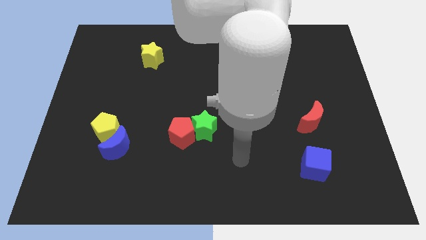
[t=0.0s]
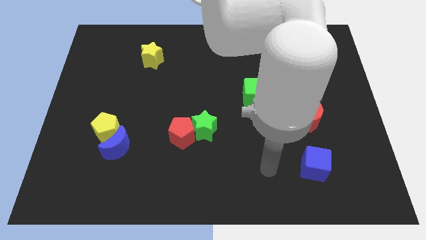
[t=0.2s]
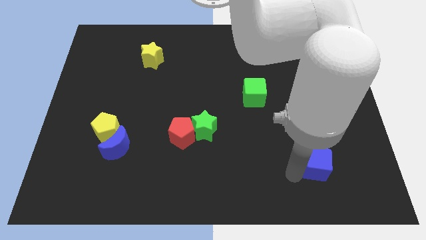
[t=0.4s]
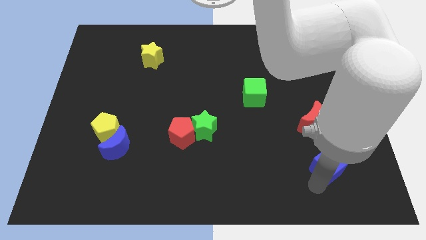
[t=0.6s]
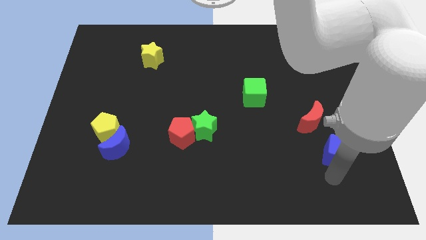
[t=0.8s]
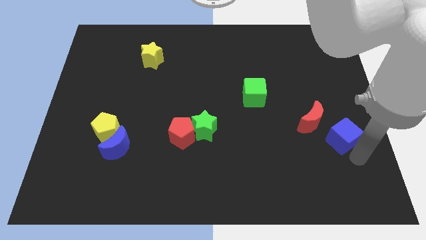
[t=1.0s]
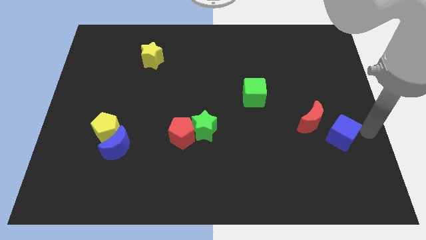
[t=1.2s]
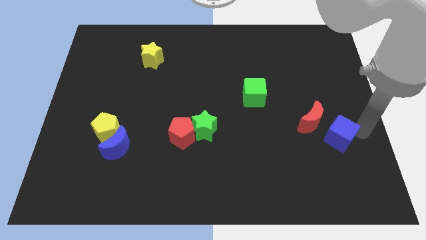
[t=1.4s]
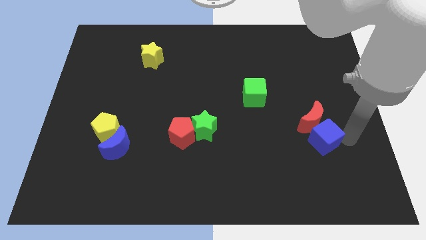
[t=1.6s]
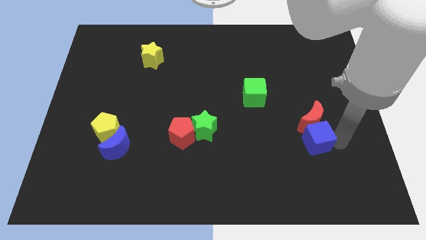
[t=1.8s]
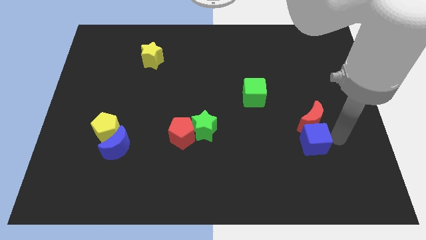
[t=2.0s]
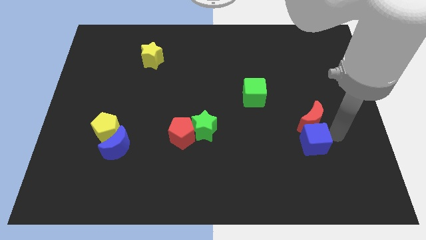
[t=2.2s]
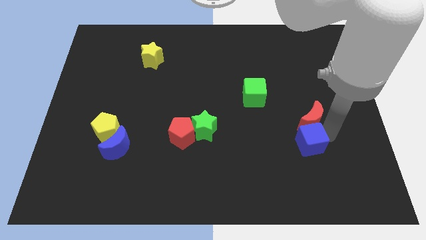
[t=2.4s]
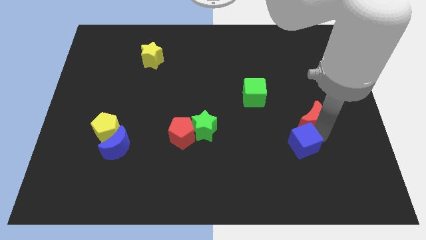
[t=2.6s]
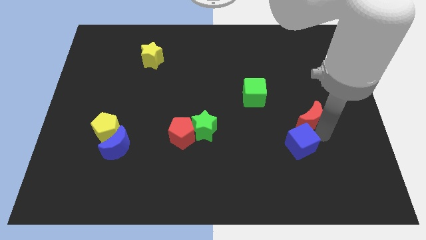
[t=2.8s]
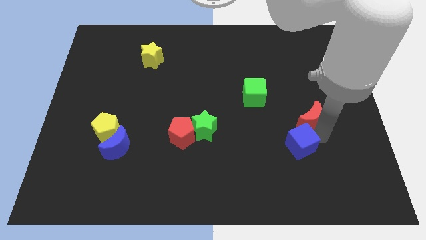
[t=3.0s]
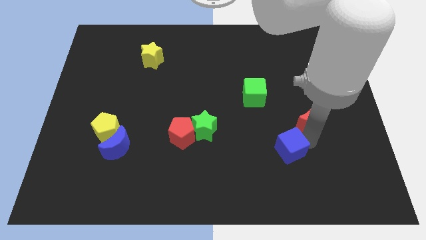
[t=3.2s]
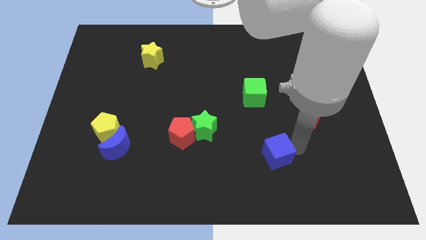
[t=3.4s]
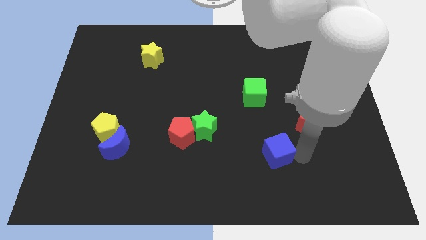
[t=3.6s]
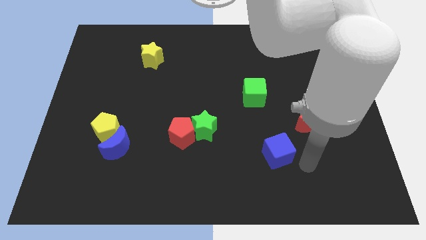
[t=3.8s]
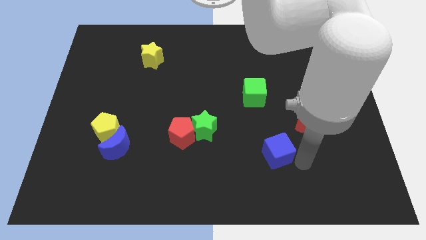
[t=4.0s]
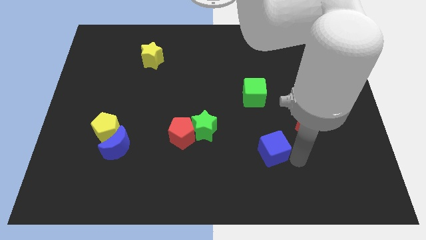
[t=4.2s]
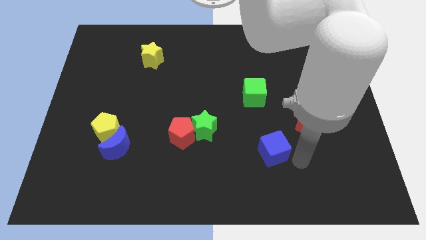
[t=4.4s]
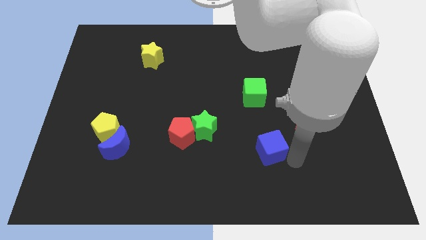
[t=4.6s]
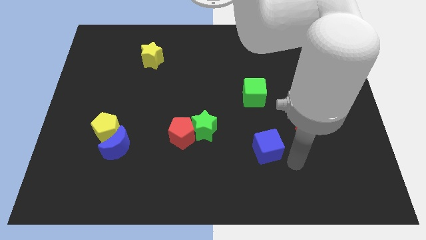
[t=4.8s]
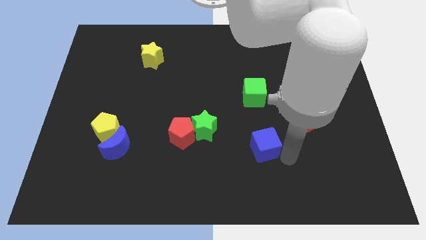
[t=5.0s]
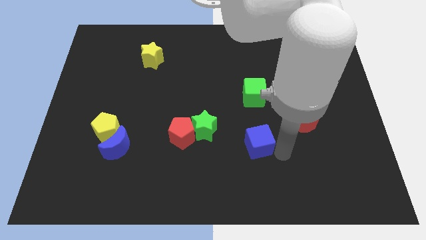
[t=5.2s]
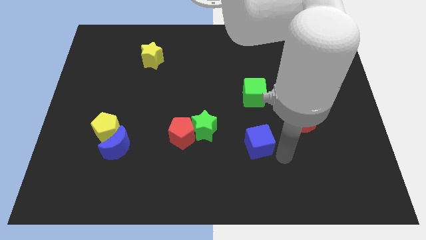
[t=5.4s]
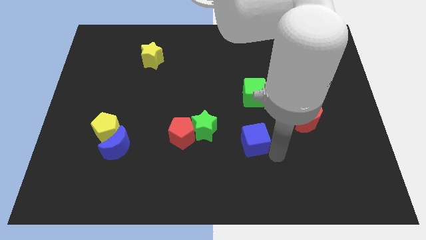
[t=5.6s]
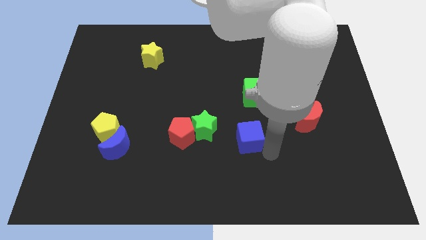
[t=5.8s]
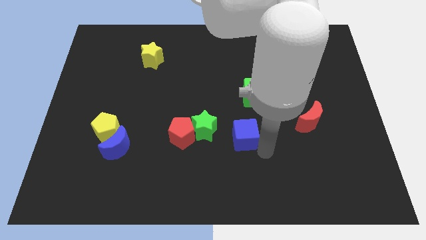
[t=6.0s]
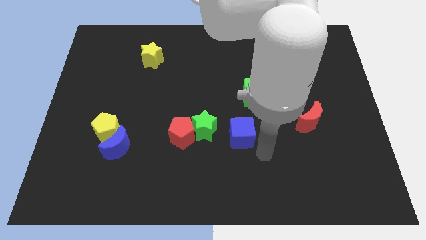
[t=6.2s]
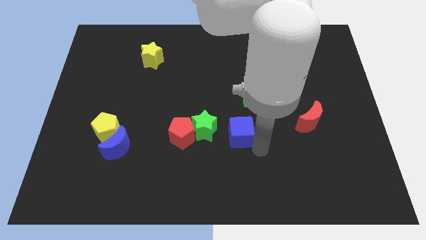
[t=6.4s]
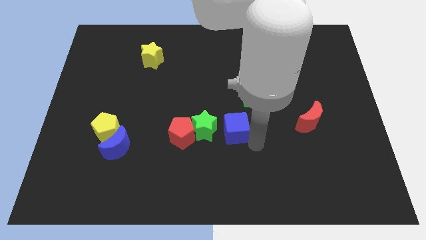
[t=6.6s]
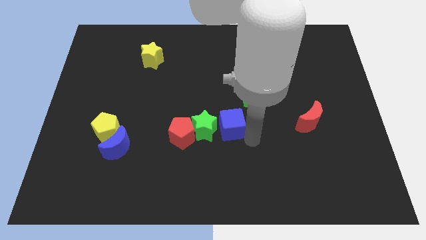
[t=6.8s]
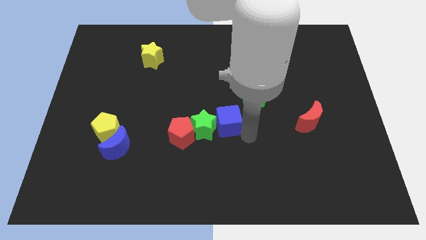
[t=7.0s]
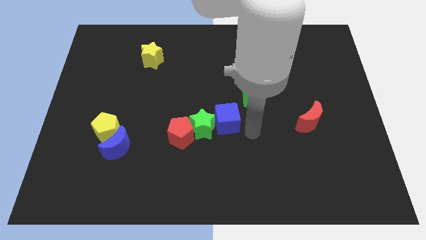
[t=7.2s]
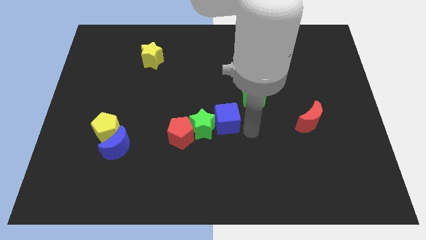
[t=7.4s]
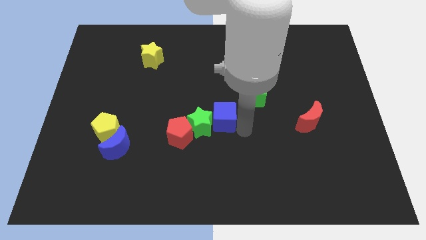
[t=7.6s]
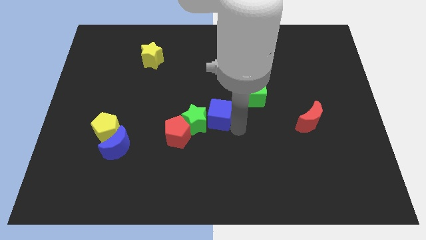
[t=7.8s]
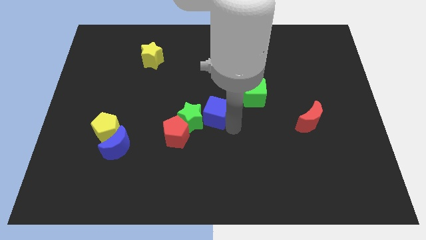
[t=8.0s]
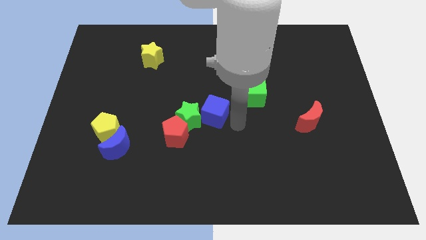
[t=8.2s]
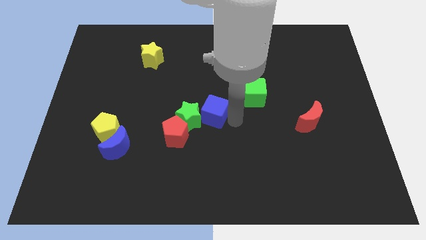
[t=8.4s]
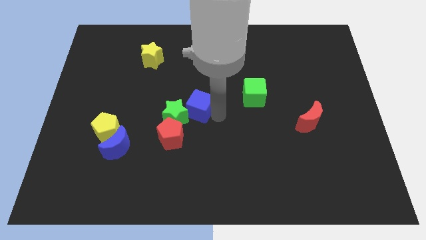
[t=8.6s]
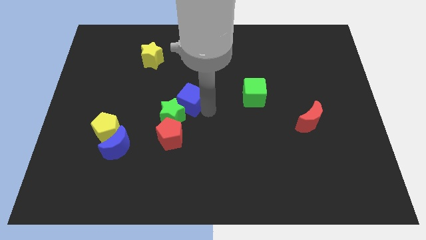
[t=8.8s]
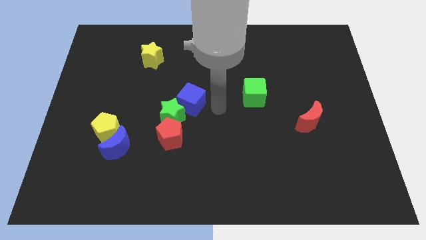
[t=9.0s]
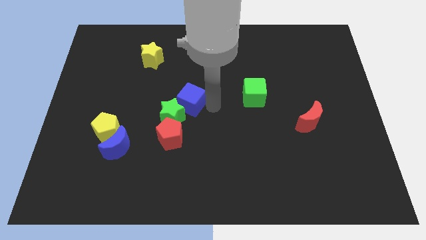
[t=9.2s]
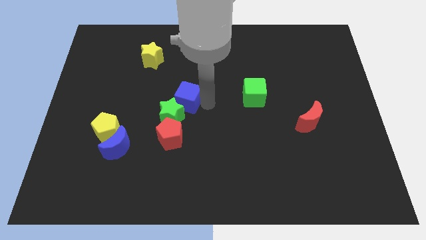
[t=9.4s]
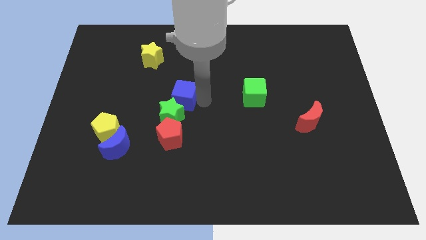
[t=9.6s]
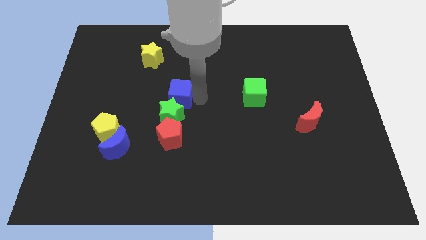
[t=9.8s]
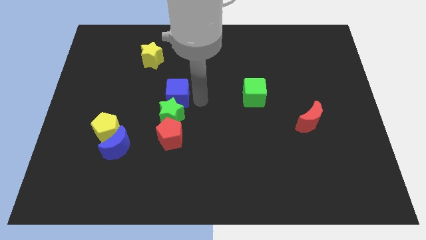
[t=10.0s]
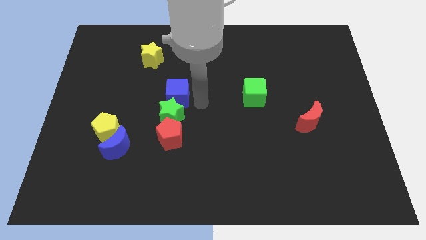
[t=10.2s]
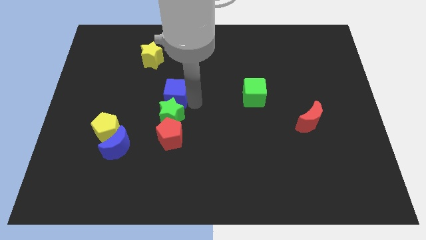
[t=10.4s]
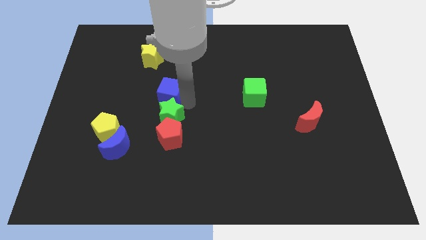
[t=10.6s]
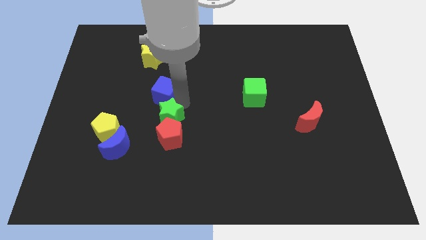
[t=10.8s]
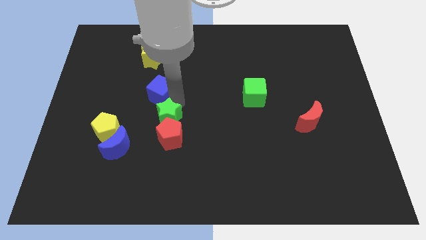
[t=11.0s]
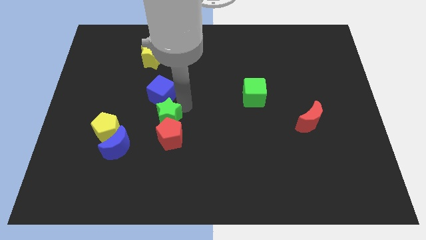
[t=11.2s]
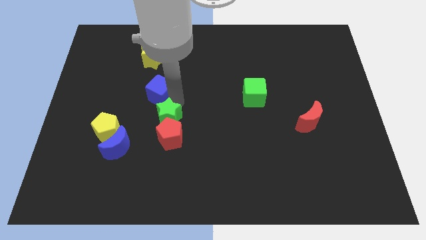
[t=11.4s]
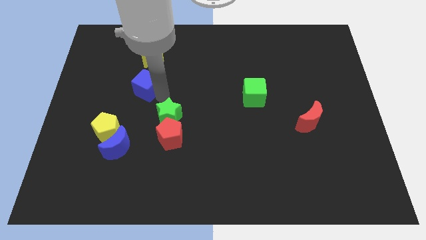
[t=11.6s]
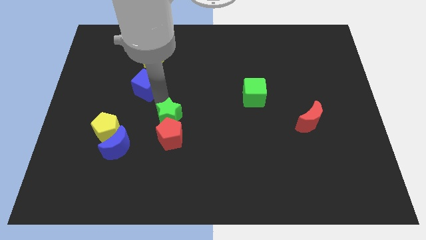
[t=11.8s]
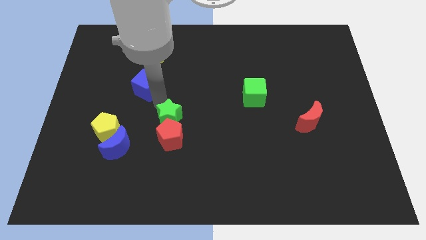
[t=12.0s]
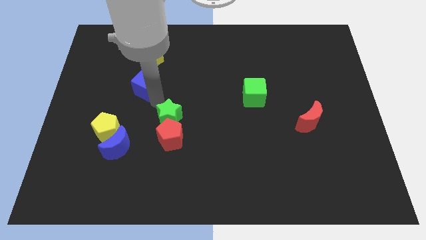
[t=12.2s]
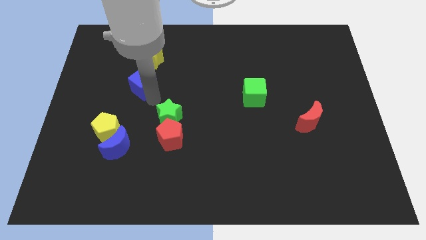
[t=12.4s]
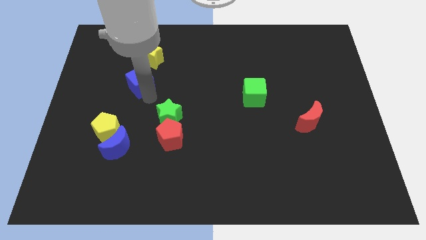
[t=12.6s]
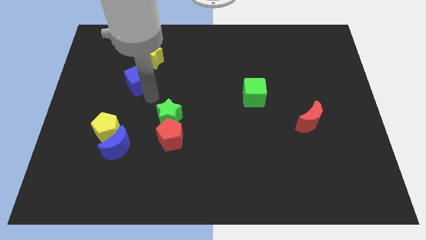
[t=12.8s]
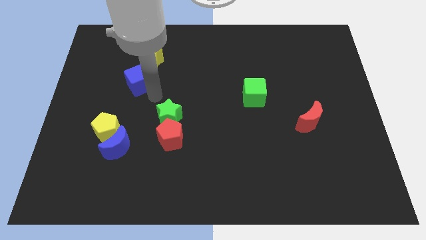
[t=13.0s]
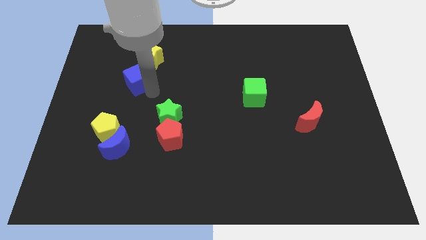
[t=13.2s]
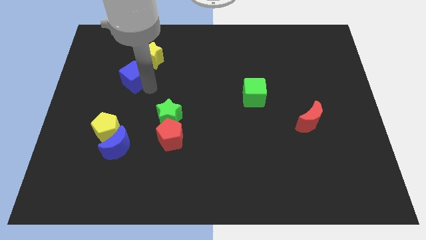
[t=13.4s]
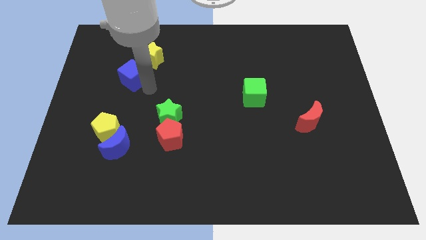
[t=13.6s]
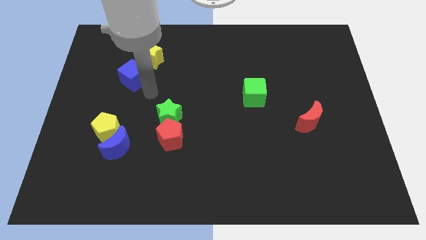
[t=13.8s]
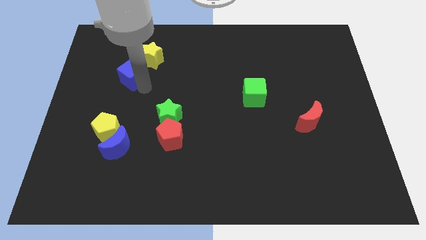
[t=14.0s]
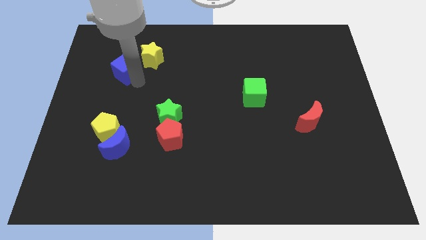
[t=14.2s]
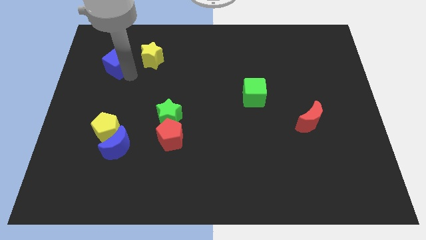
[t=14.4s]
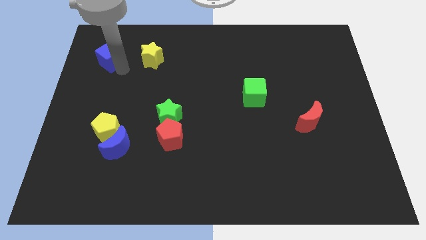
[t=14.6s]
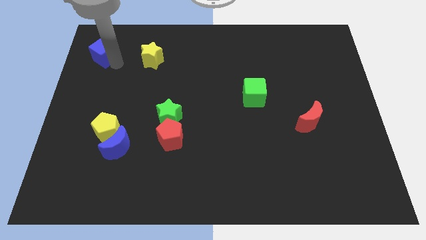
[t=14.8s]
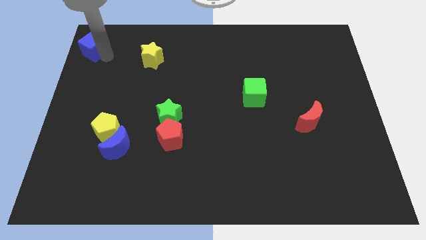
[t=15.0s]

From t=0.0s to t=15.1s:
move the blue cube to the top left
